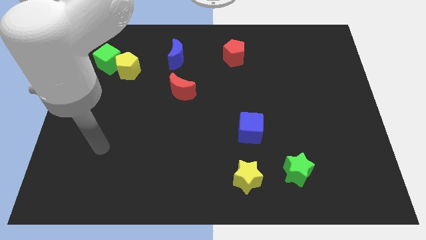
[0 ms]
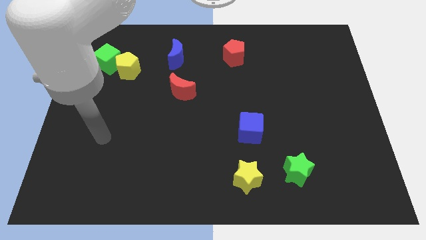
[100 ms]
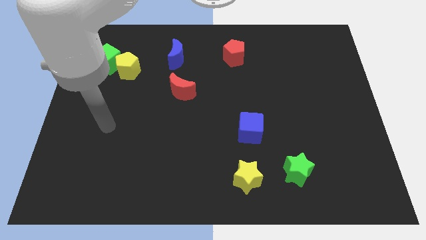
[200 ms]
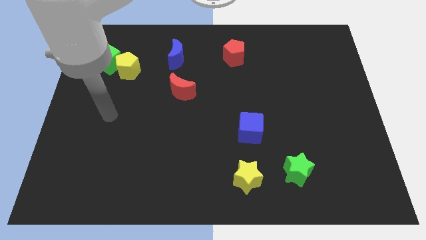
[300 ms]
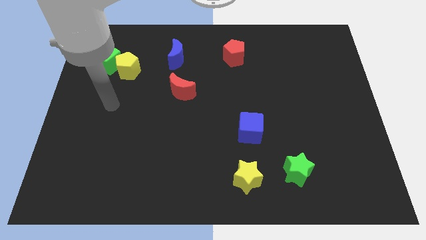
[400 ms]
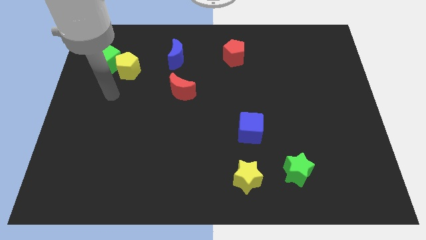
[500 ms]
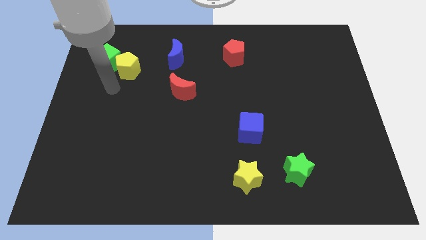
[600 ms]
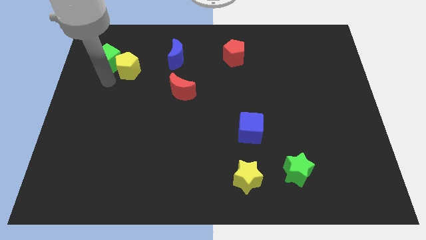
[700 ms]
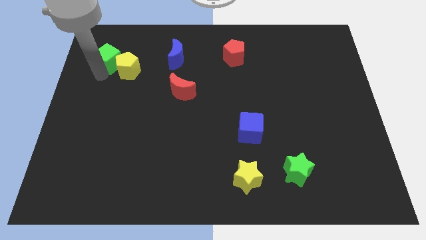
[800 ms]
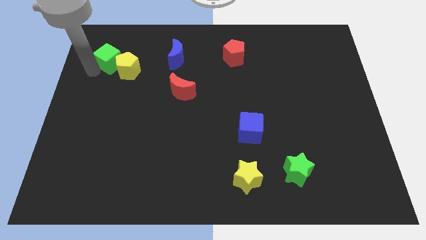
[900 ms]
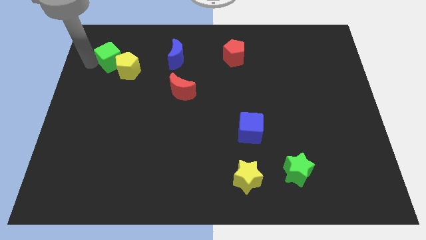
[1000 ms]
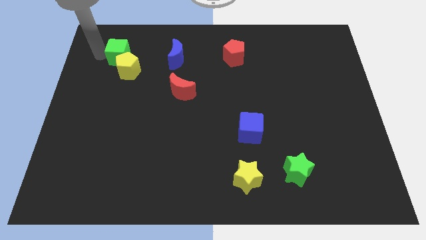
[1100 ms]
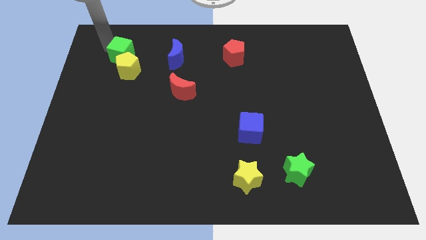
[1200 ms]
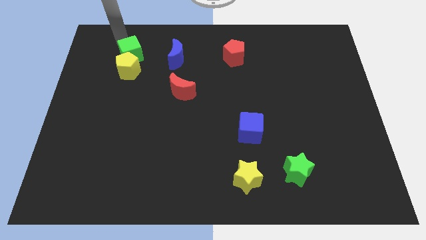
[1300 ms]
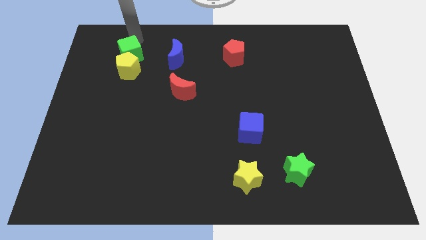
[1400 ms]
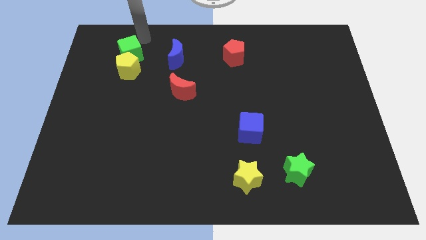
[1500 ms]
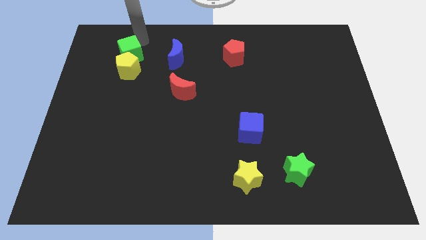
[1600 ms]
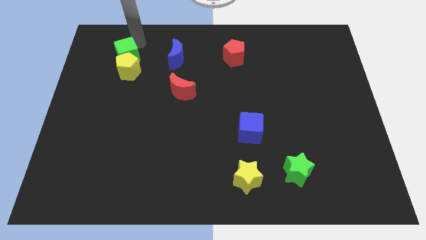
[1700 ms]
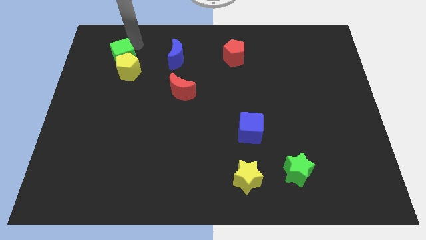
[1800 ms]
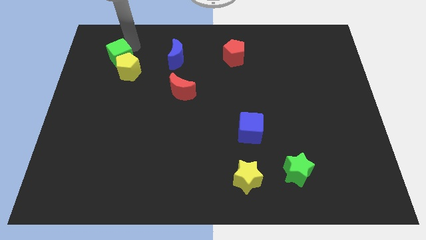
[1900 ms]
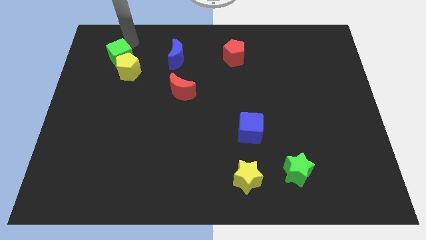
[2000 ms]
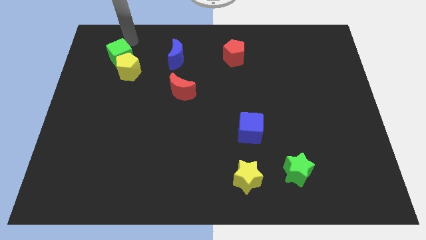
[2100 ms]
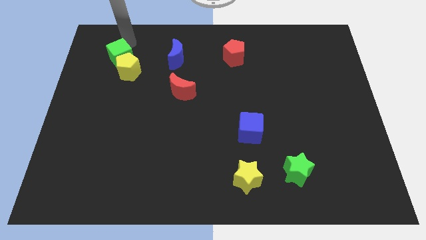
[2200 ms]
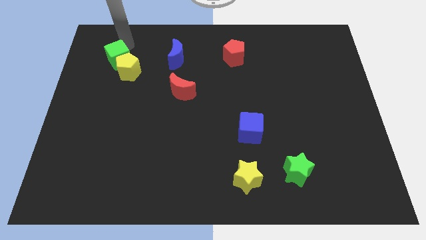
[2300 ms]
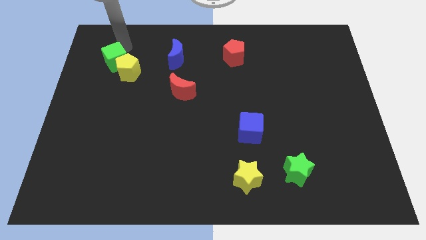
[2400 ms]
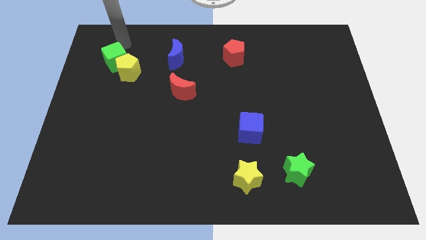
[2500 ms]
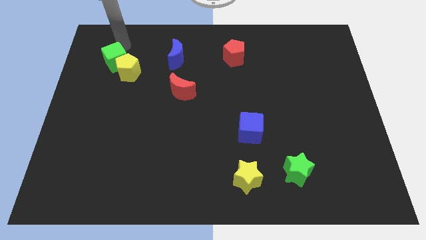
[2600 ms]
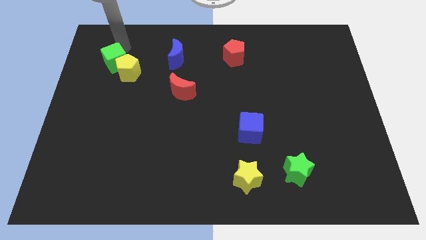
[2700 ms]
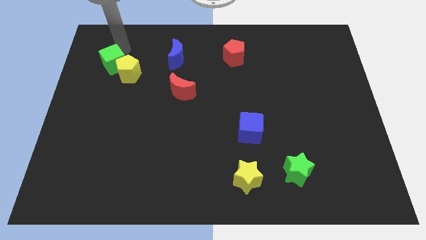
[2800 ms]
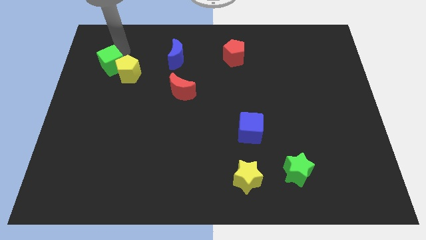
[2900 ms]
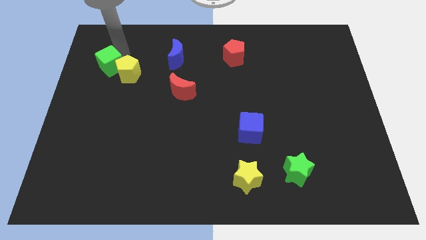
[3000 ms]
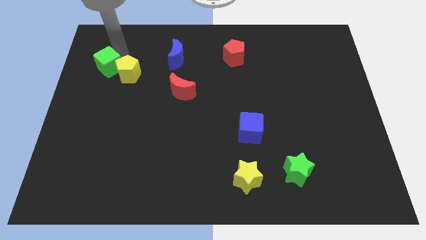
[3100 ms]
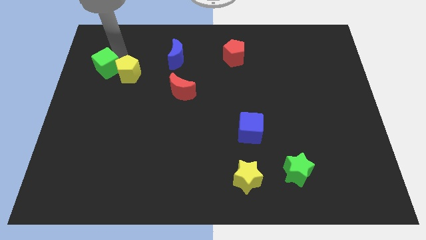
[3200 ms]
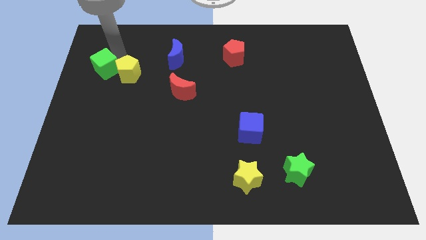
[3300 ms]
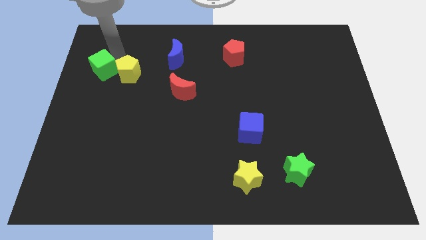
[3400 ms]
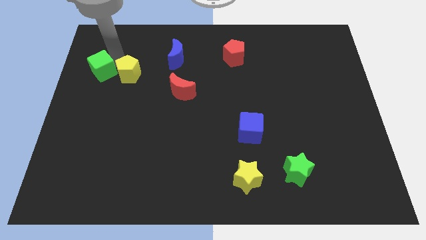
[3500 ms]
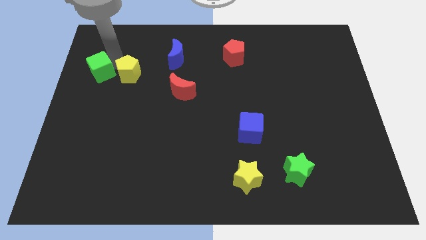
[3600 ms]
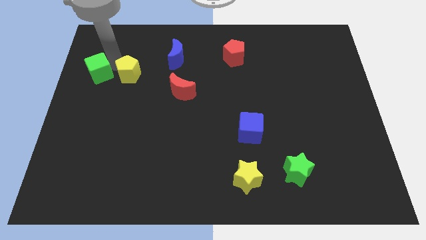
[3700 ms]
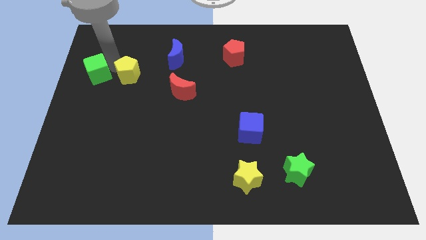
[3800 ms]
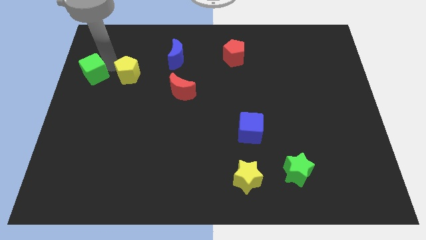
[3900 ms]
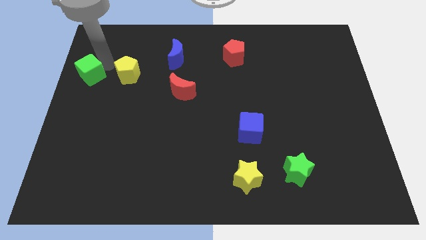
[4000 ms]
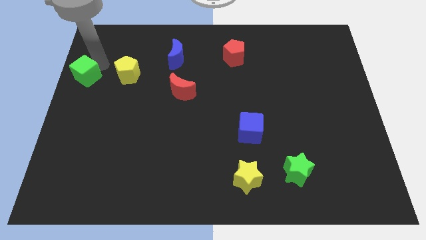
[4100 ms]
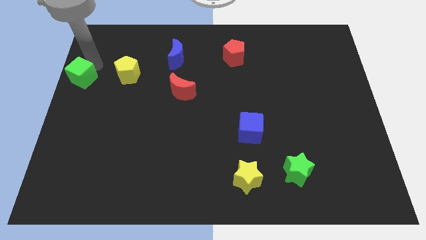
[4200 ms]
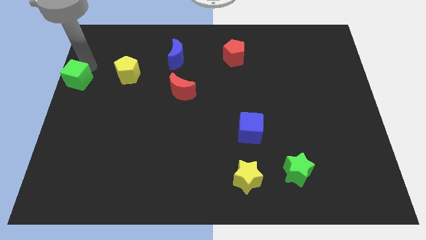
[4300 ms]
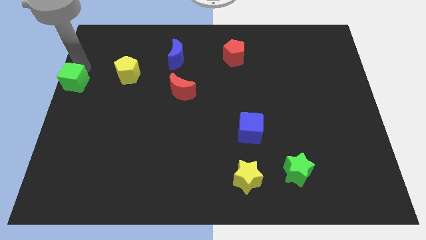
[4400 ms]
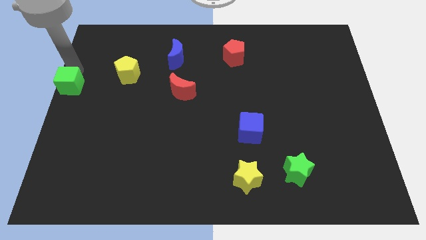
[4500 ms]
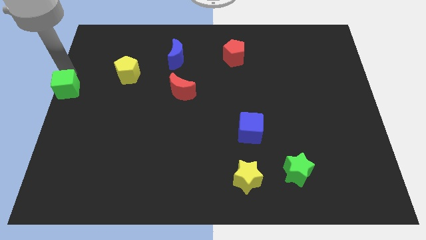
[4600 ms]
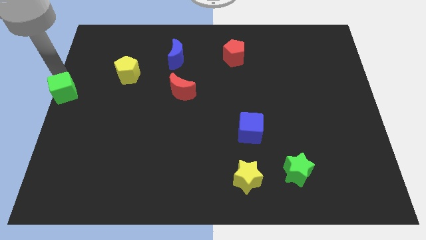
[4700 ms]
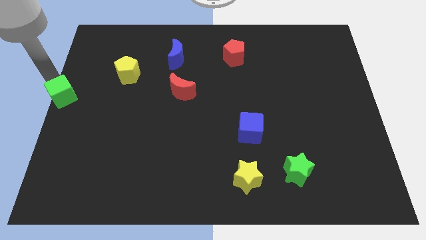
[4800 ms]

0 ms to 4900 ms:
push the green cube a little downwards

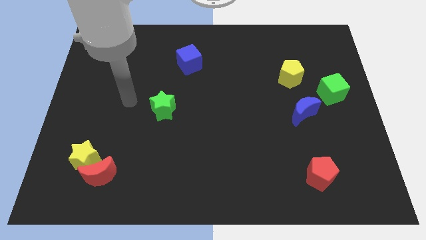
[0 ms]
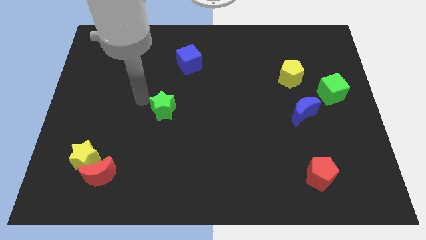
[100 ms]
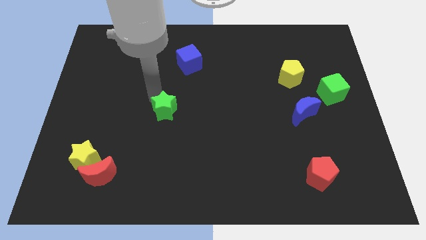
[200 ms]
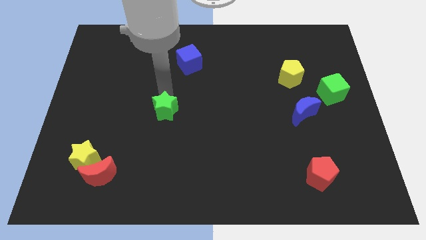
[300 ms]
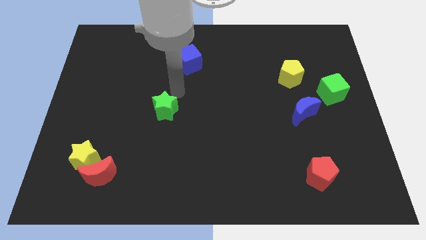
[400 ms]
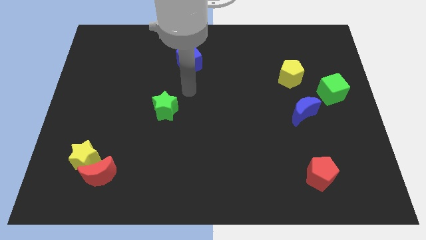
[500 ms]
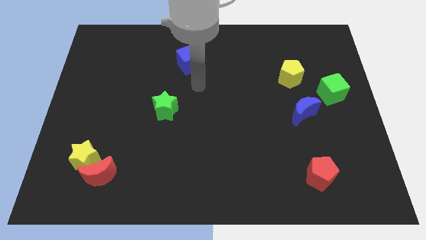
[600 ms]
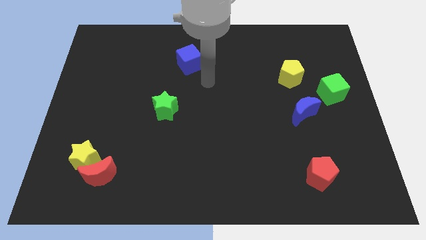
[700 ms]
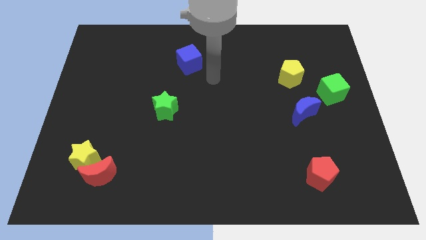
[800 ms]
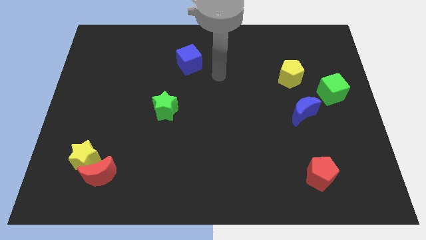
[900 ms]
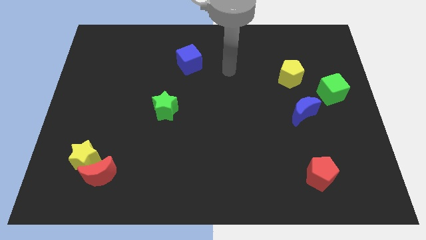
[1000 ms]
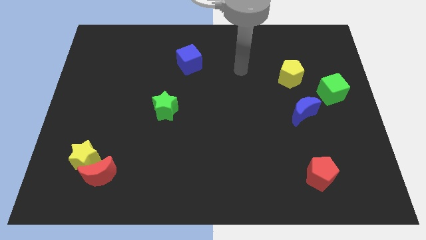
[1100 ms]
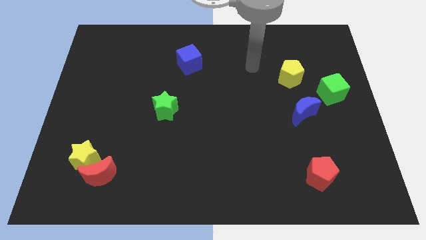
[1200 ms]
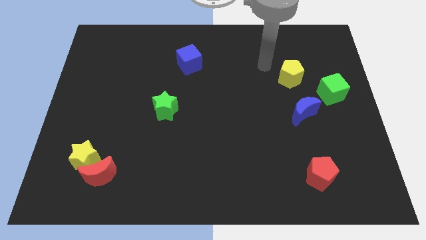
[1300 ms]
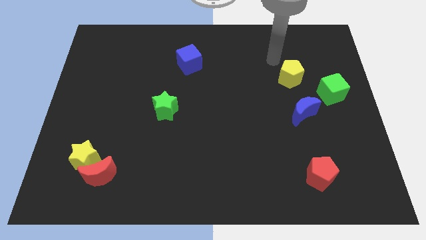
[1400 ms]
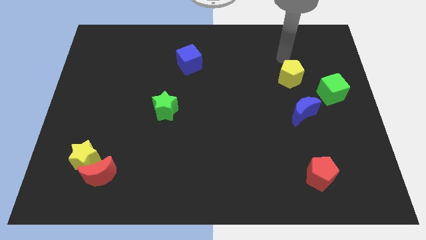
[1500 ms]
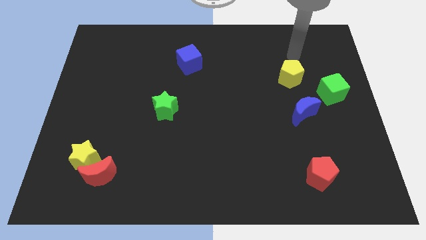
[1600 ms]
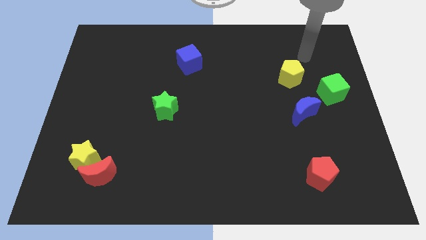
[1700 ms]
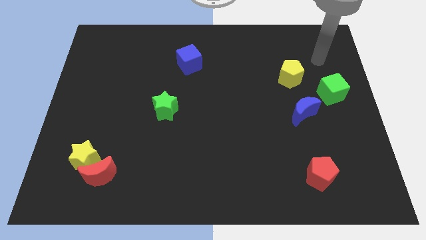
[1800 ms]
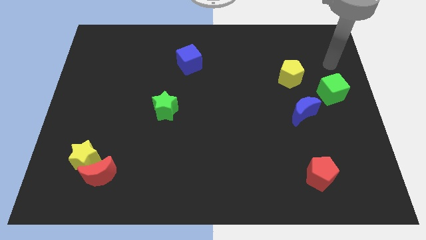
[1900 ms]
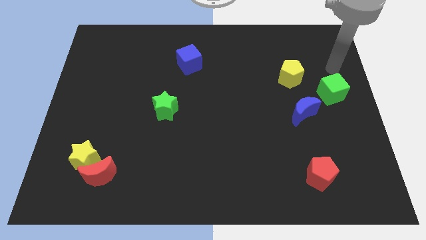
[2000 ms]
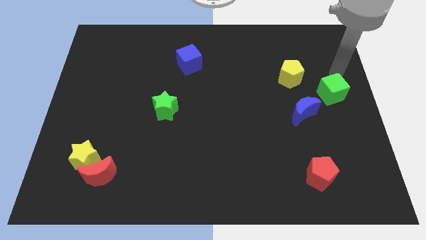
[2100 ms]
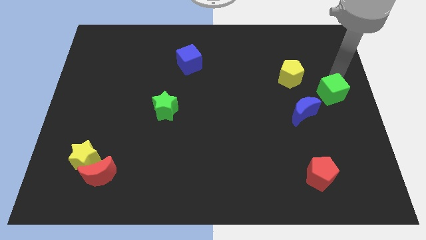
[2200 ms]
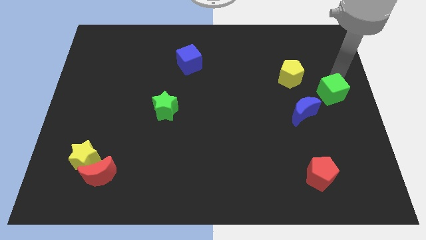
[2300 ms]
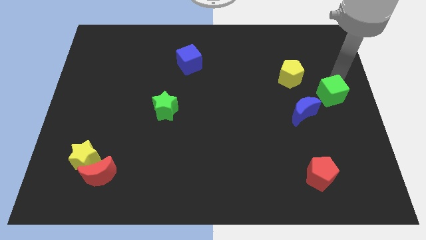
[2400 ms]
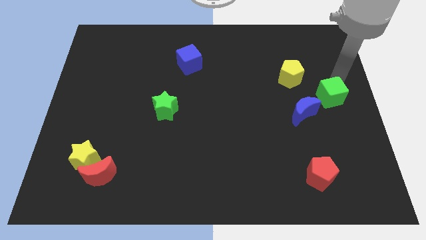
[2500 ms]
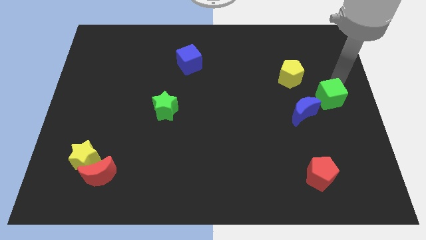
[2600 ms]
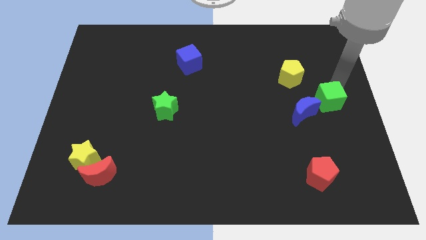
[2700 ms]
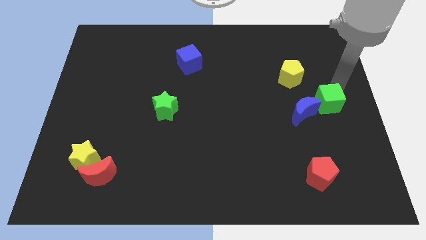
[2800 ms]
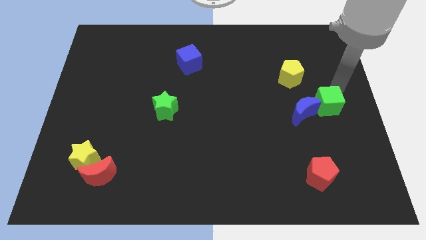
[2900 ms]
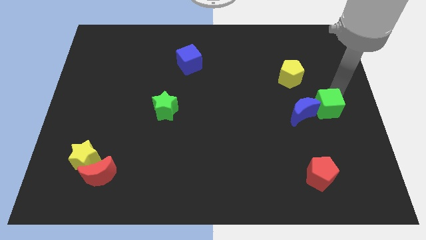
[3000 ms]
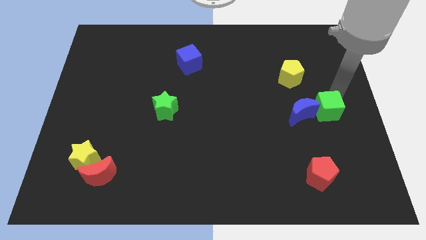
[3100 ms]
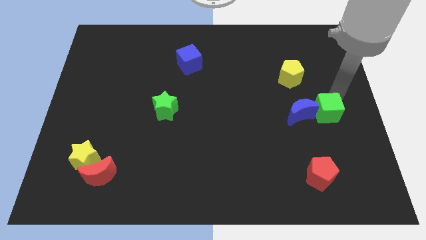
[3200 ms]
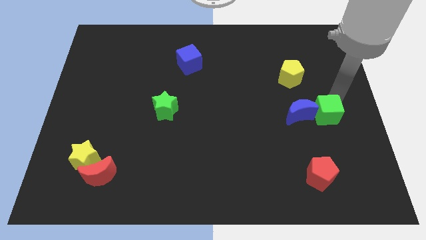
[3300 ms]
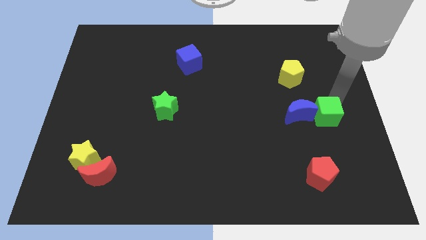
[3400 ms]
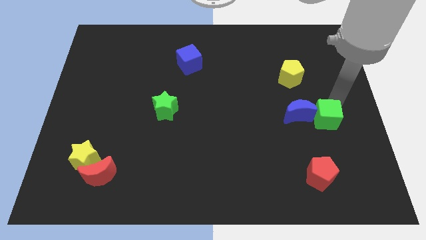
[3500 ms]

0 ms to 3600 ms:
push the green cube downwards and left diagonally somewhat
